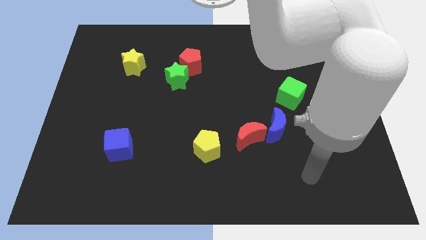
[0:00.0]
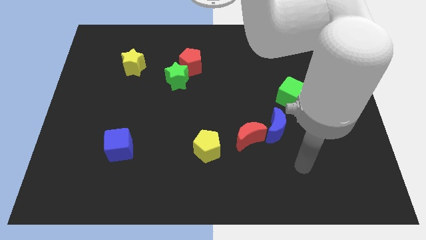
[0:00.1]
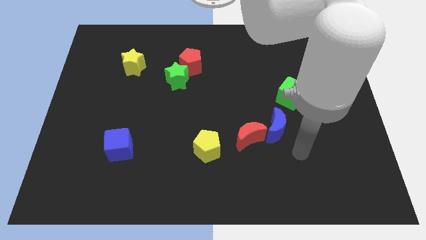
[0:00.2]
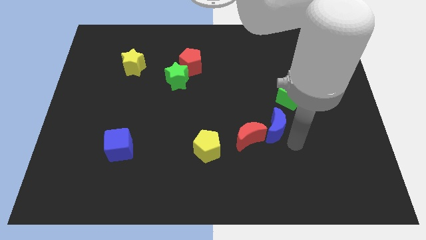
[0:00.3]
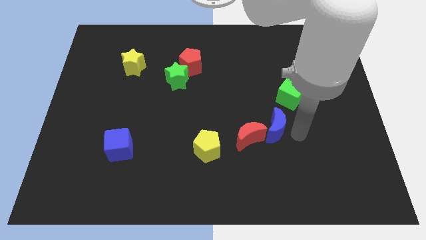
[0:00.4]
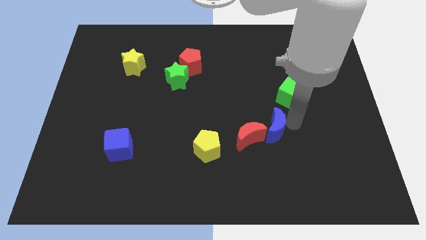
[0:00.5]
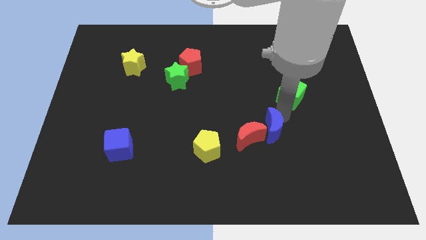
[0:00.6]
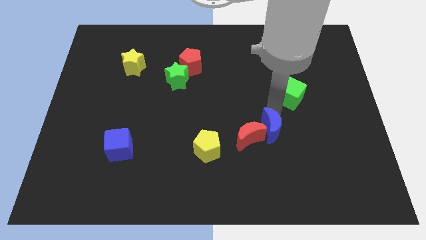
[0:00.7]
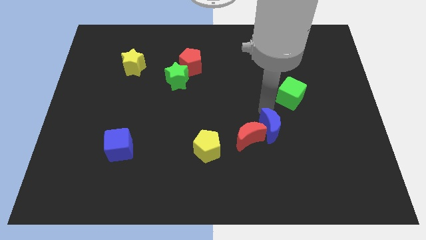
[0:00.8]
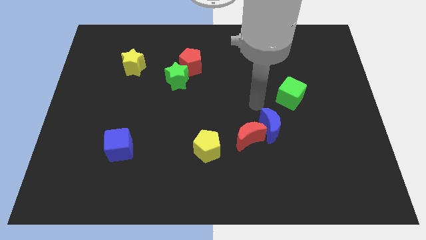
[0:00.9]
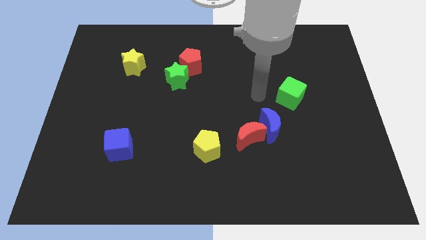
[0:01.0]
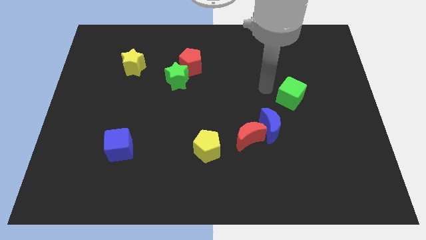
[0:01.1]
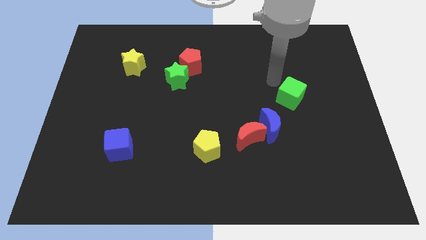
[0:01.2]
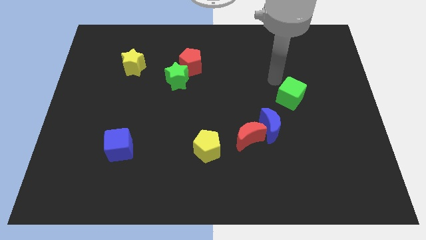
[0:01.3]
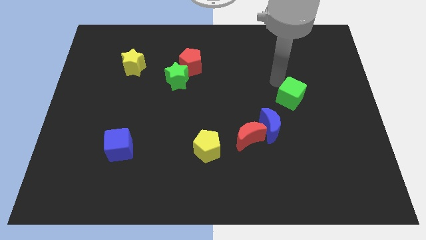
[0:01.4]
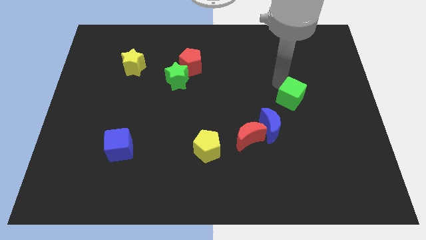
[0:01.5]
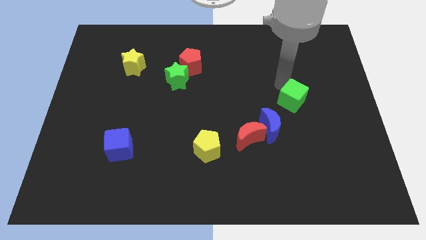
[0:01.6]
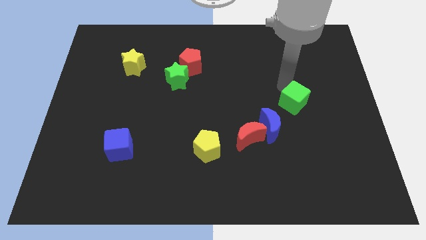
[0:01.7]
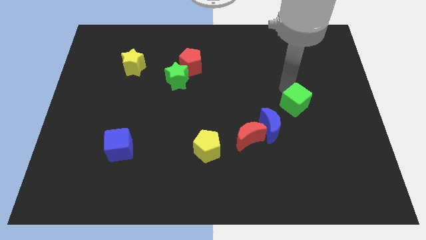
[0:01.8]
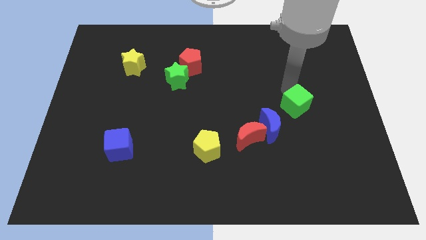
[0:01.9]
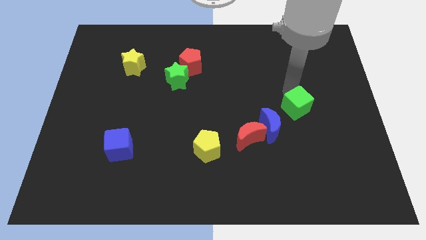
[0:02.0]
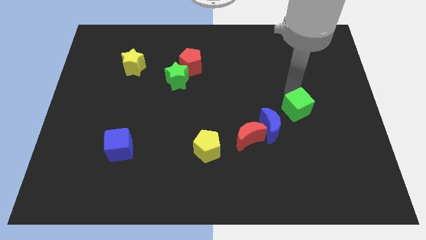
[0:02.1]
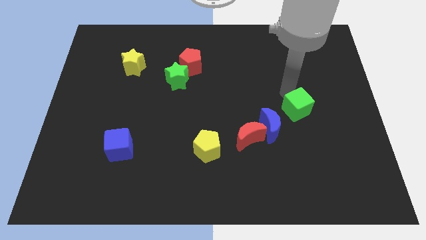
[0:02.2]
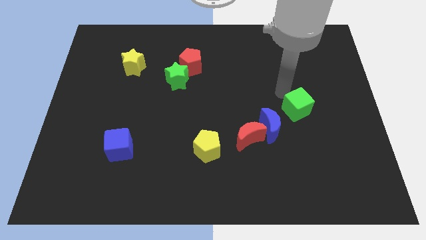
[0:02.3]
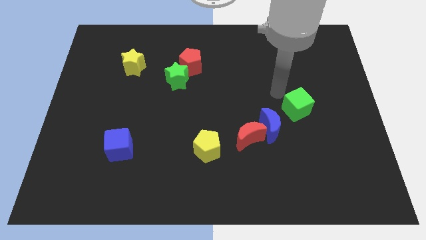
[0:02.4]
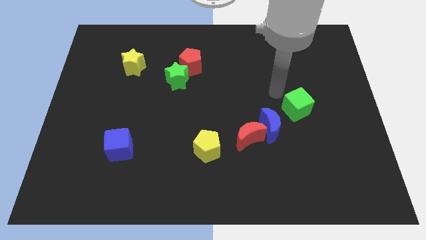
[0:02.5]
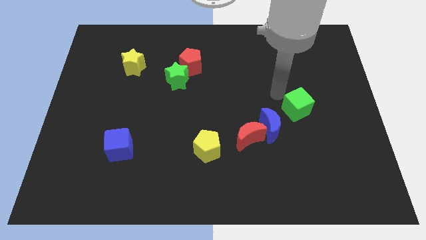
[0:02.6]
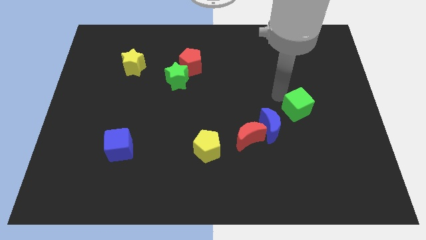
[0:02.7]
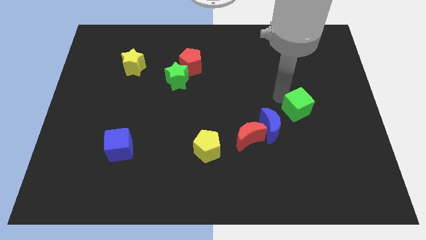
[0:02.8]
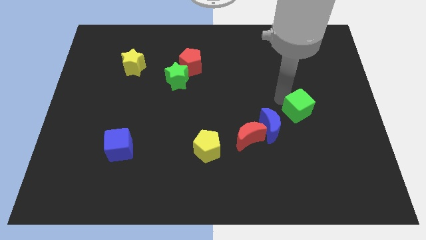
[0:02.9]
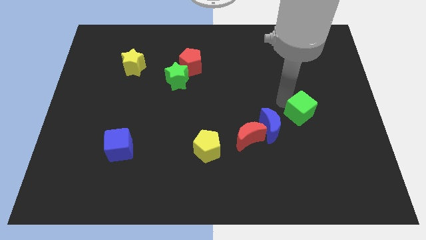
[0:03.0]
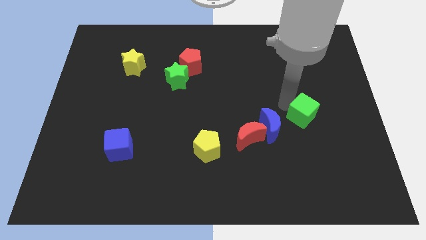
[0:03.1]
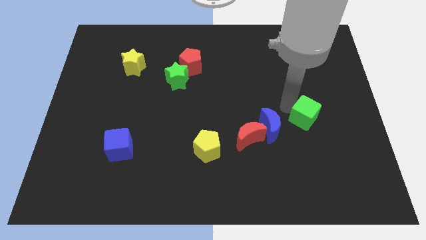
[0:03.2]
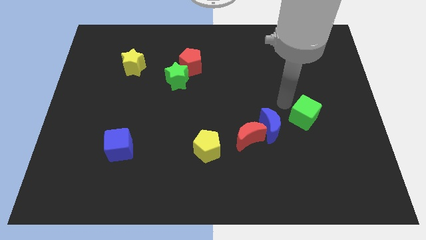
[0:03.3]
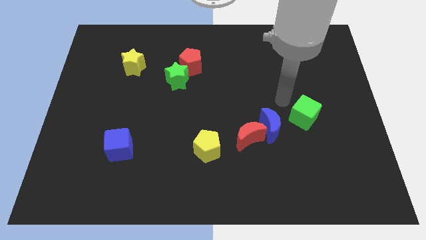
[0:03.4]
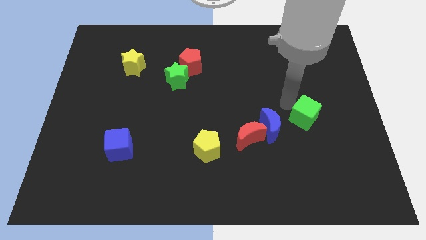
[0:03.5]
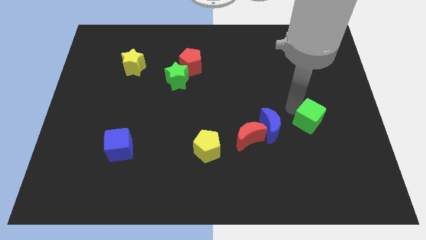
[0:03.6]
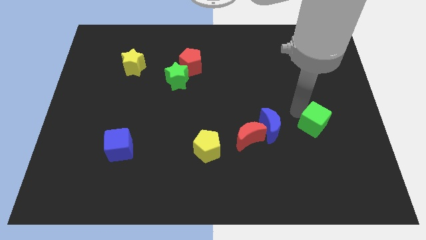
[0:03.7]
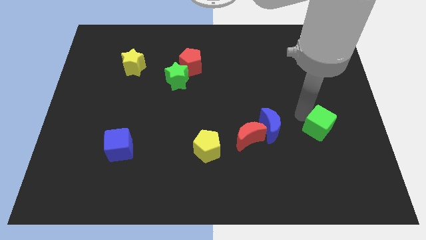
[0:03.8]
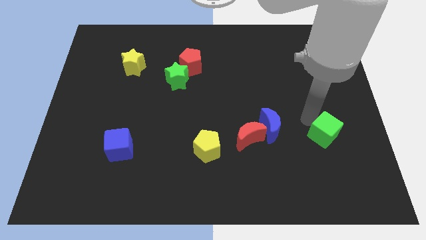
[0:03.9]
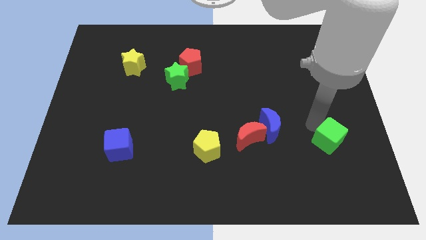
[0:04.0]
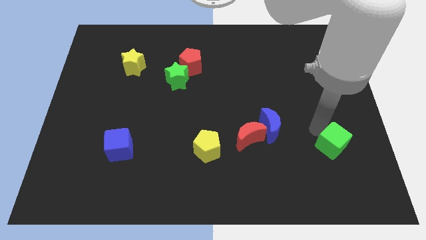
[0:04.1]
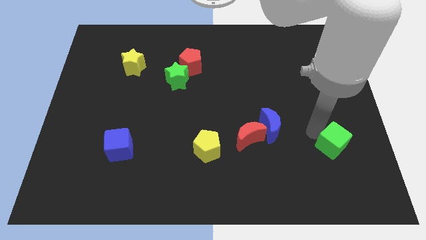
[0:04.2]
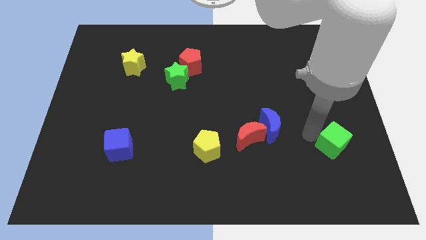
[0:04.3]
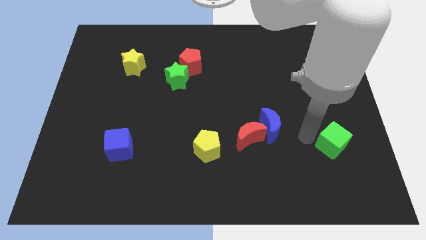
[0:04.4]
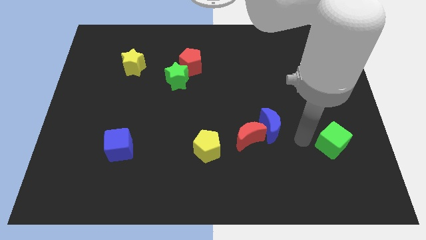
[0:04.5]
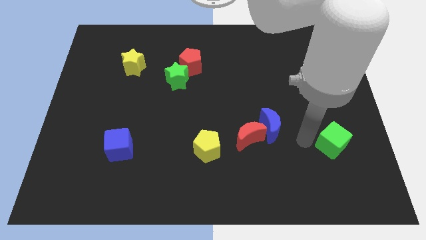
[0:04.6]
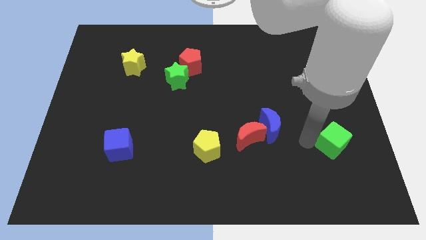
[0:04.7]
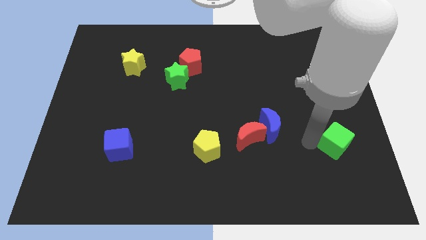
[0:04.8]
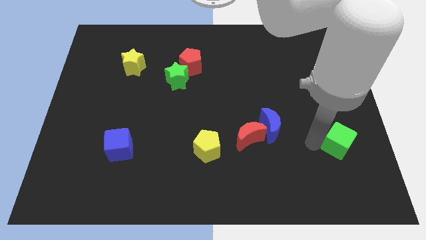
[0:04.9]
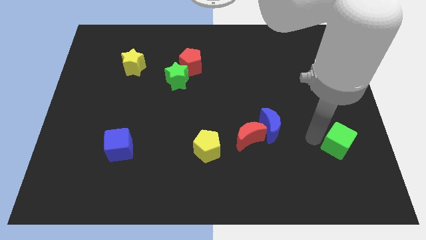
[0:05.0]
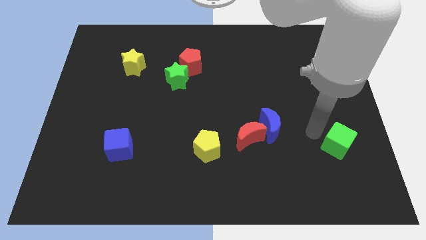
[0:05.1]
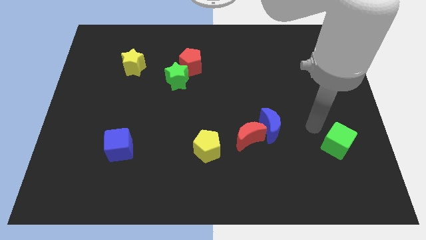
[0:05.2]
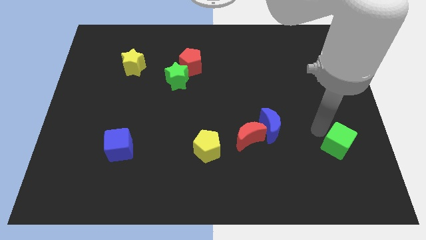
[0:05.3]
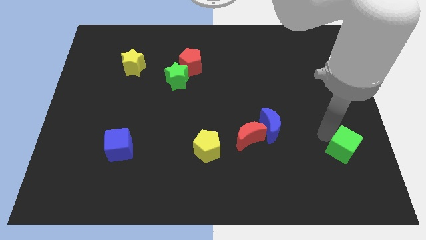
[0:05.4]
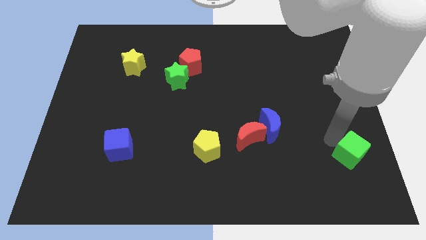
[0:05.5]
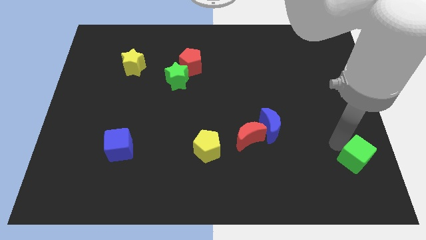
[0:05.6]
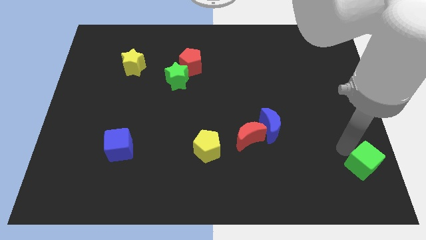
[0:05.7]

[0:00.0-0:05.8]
move the green cube to the bottom right corner
